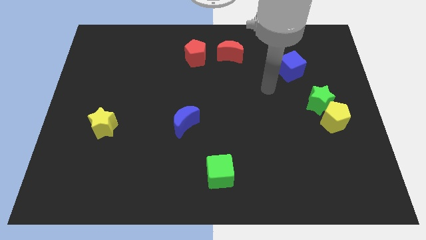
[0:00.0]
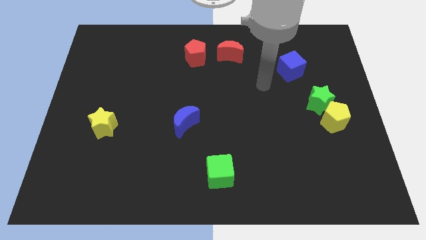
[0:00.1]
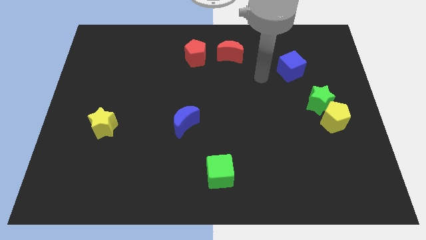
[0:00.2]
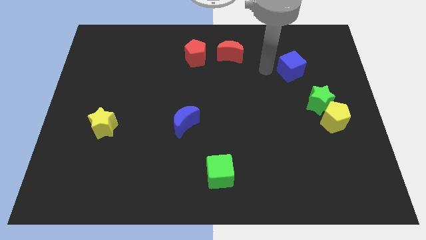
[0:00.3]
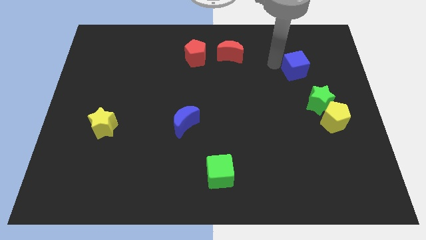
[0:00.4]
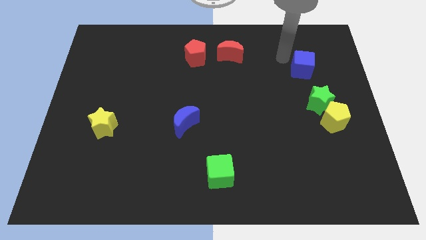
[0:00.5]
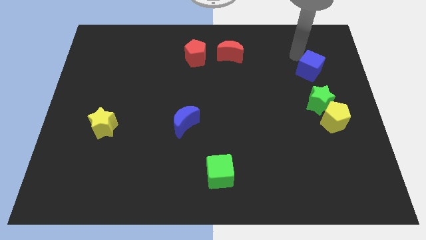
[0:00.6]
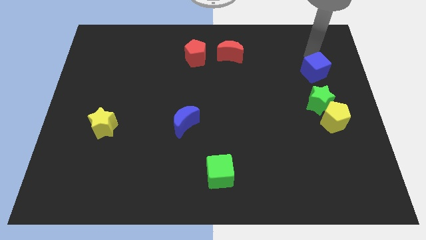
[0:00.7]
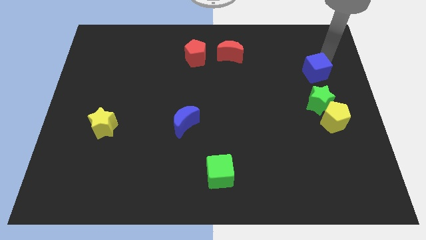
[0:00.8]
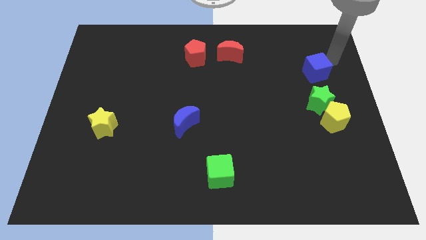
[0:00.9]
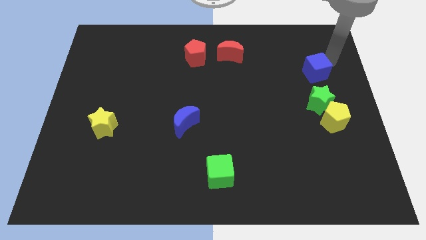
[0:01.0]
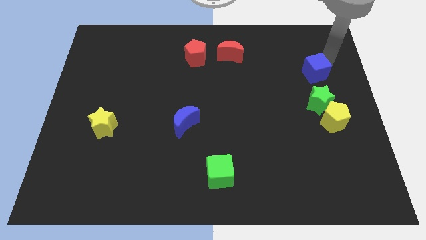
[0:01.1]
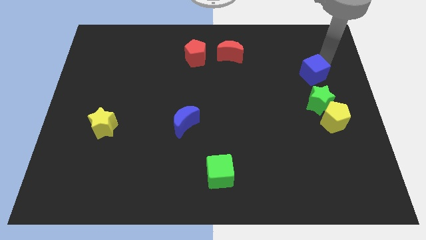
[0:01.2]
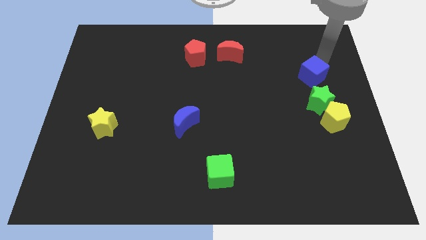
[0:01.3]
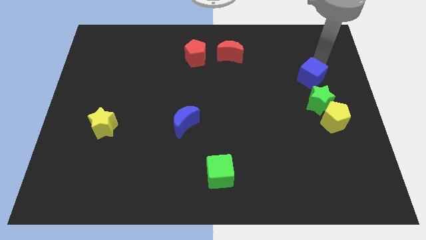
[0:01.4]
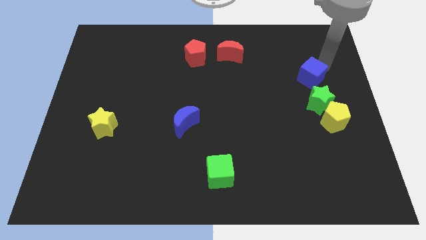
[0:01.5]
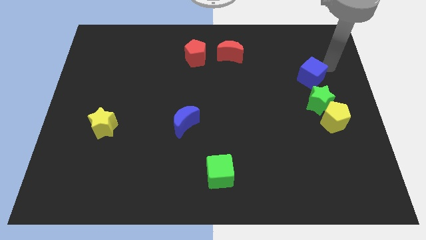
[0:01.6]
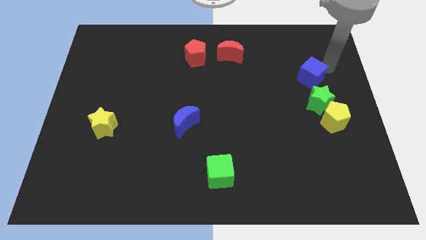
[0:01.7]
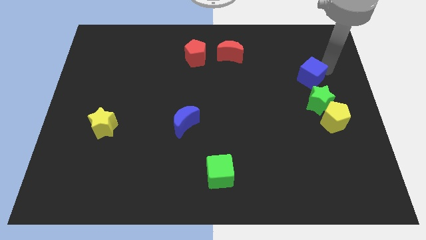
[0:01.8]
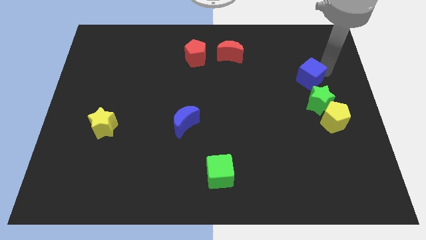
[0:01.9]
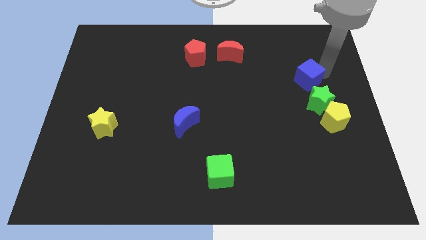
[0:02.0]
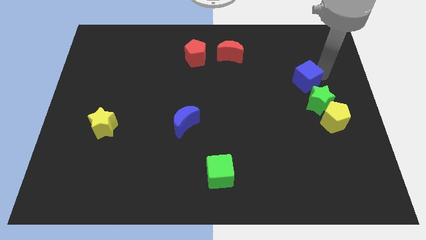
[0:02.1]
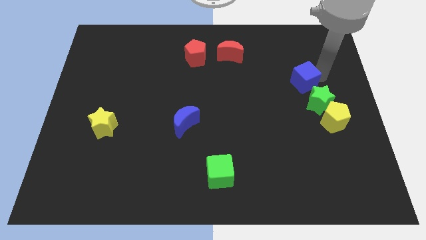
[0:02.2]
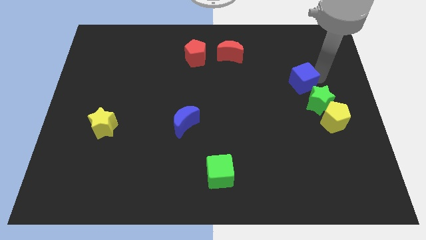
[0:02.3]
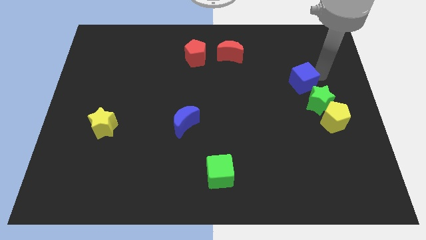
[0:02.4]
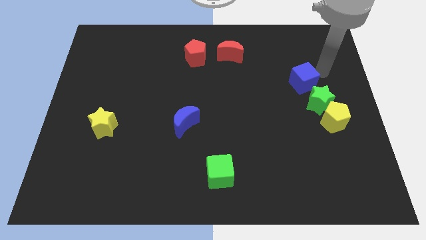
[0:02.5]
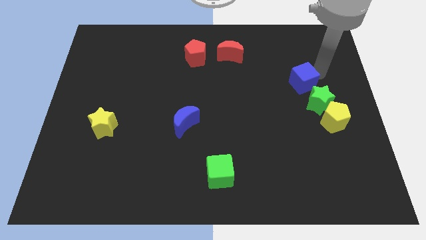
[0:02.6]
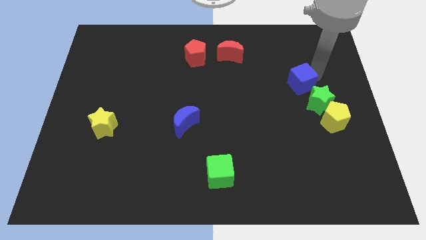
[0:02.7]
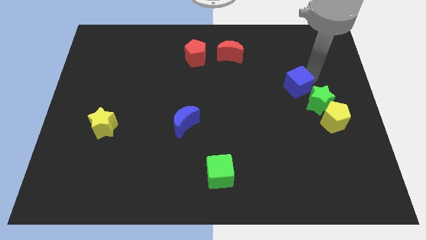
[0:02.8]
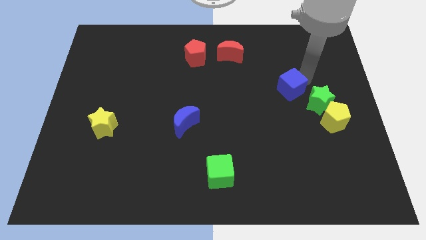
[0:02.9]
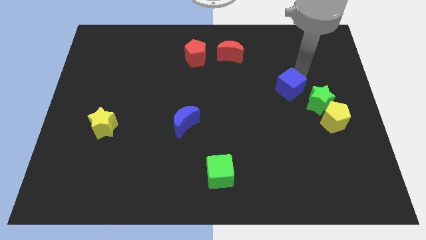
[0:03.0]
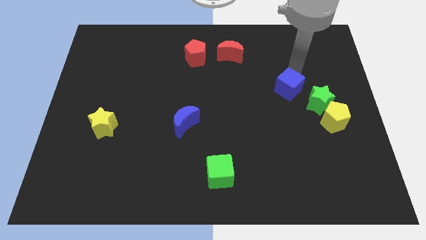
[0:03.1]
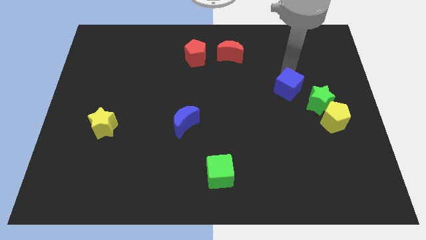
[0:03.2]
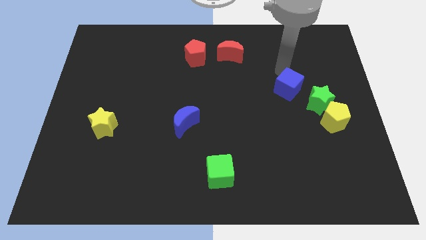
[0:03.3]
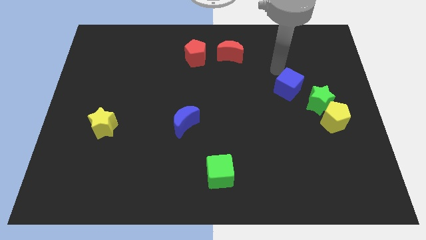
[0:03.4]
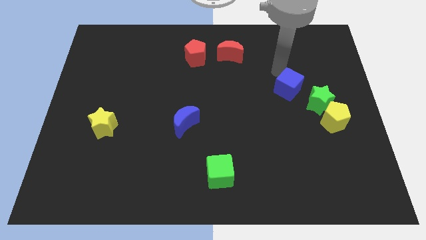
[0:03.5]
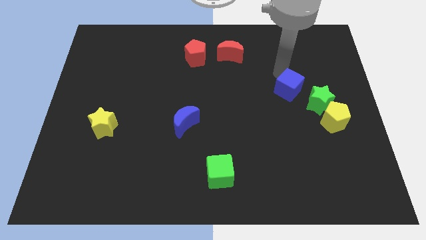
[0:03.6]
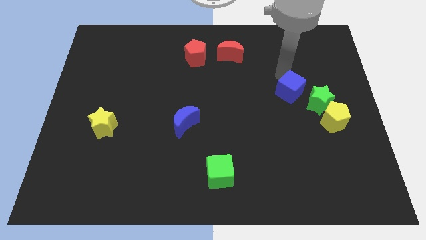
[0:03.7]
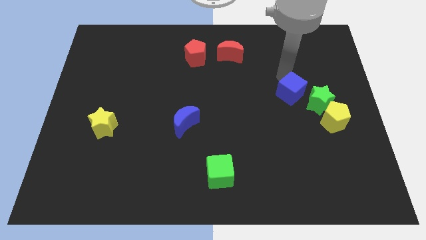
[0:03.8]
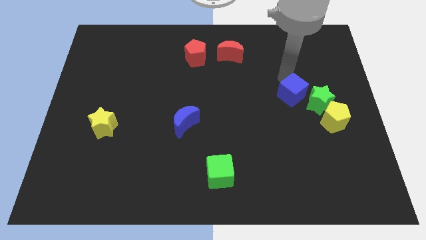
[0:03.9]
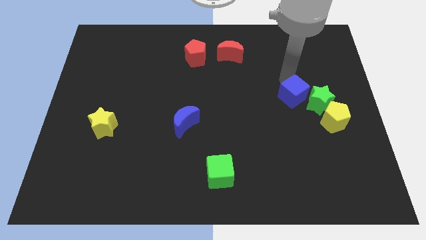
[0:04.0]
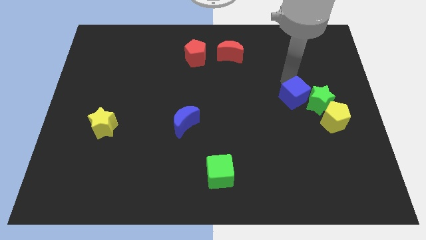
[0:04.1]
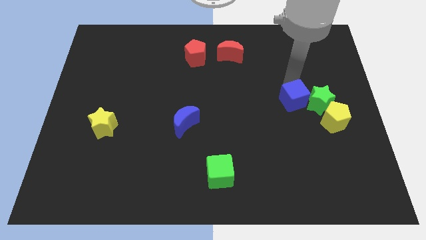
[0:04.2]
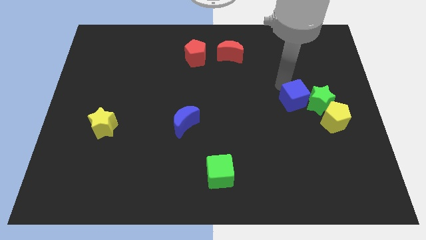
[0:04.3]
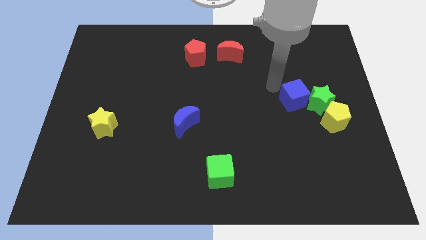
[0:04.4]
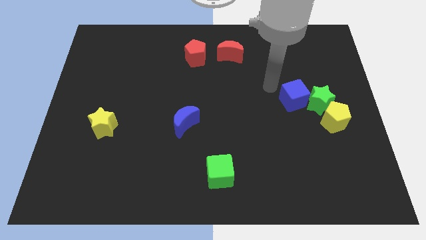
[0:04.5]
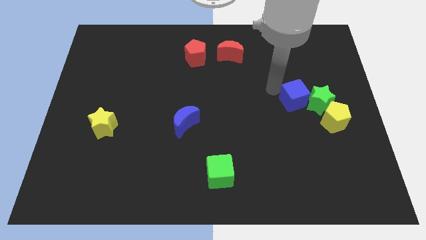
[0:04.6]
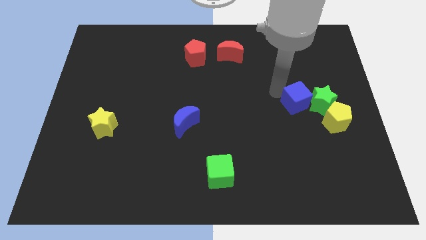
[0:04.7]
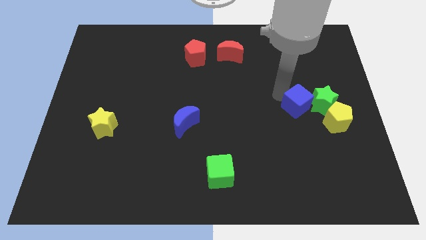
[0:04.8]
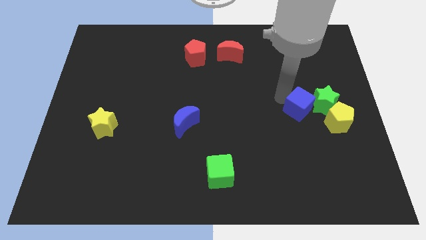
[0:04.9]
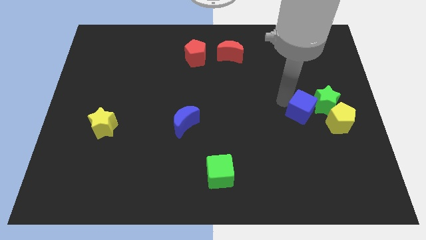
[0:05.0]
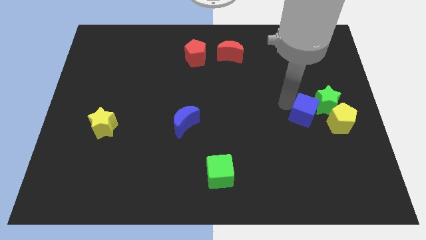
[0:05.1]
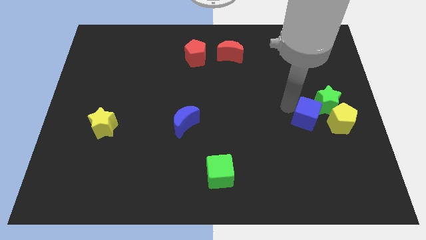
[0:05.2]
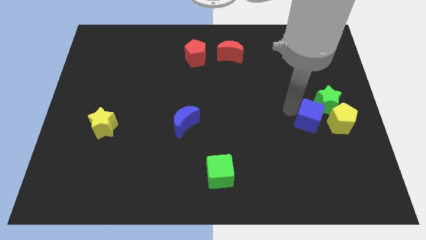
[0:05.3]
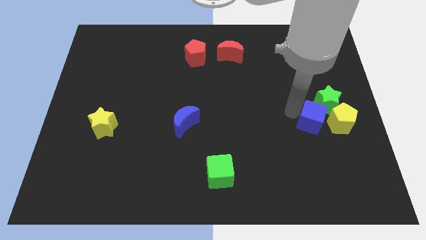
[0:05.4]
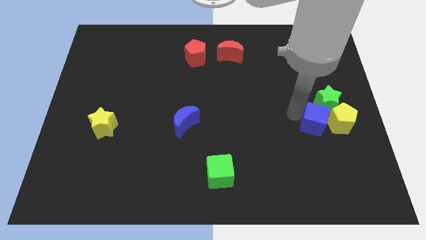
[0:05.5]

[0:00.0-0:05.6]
slide the blue cube towards the yellow pentagon

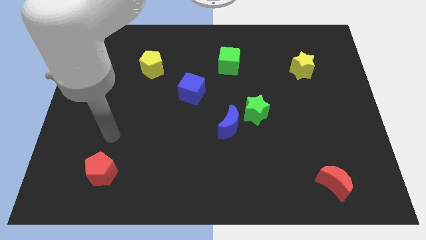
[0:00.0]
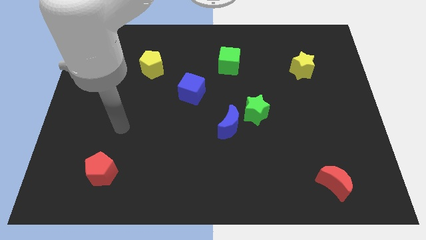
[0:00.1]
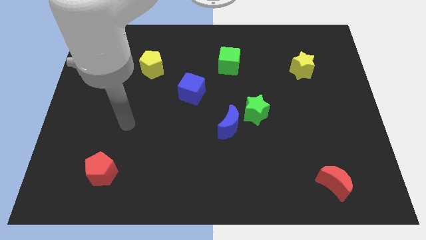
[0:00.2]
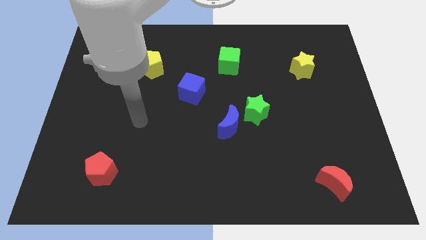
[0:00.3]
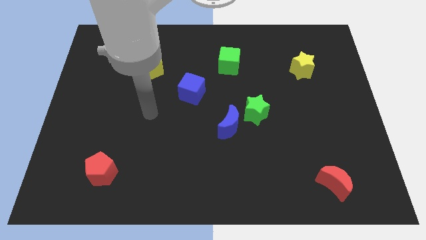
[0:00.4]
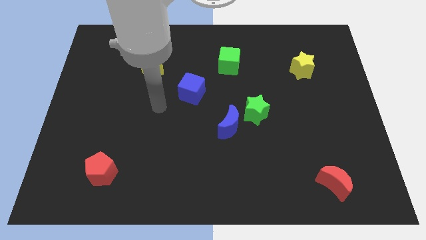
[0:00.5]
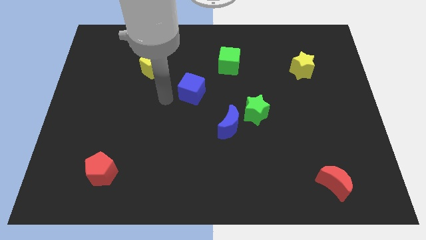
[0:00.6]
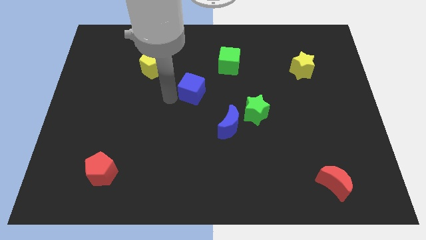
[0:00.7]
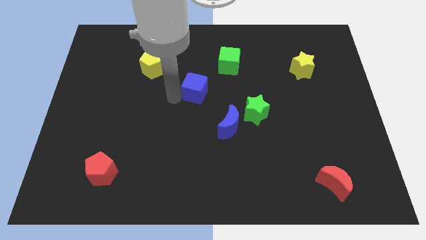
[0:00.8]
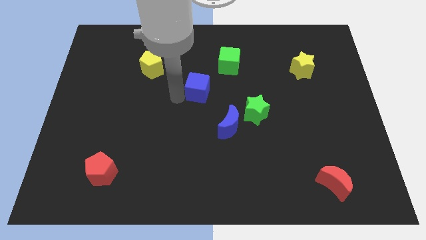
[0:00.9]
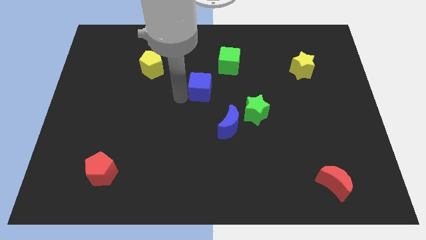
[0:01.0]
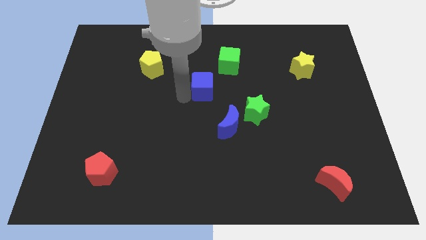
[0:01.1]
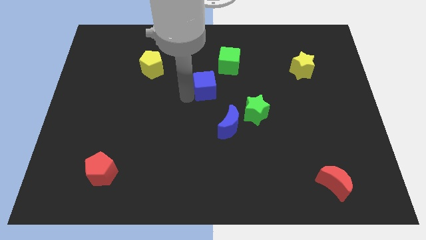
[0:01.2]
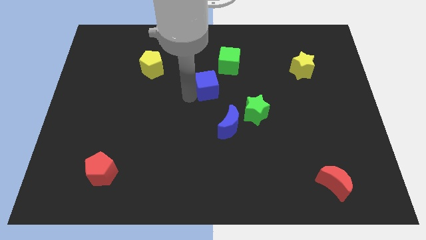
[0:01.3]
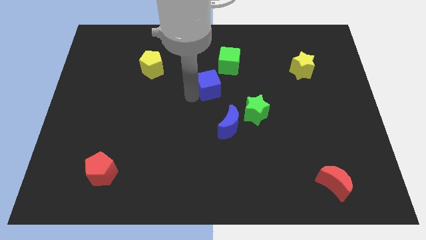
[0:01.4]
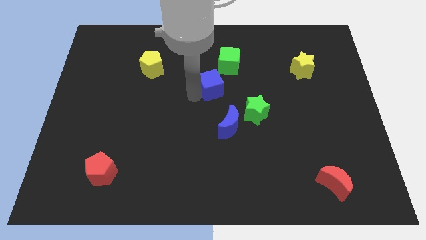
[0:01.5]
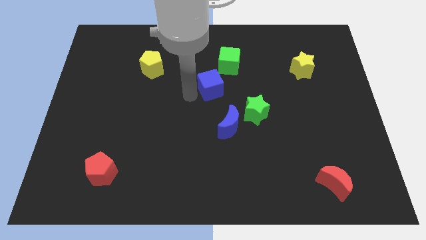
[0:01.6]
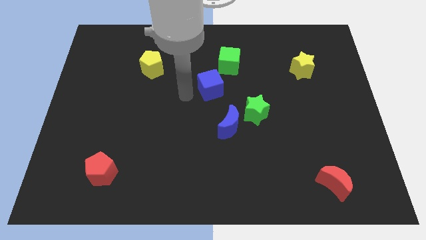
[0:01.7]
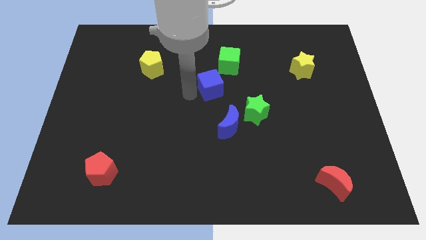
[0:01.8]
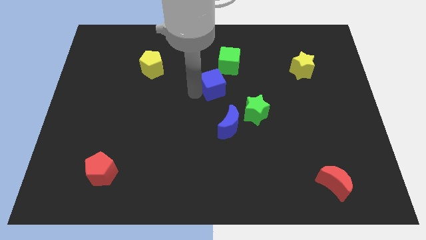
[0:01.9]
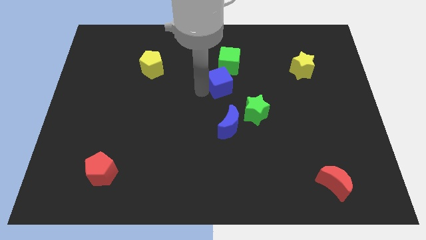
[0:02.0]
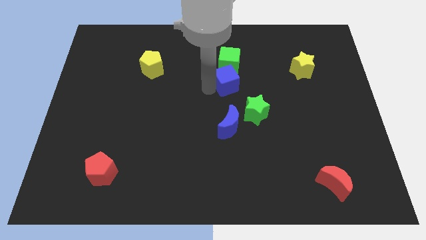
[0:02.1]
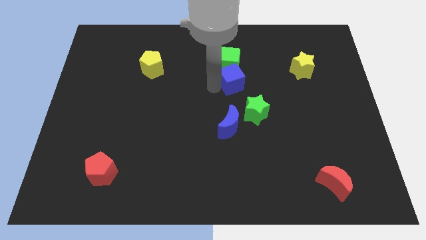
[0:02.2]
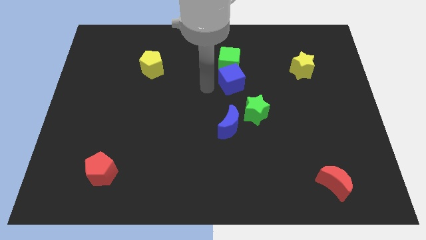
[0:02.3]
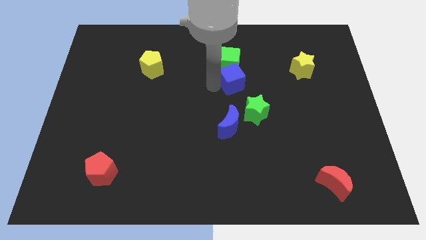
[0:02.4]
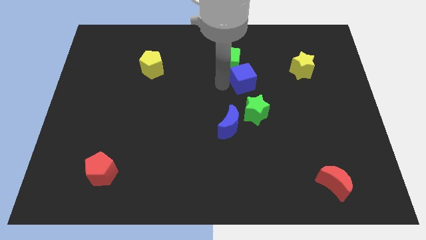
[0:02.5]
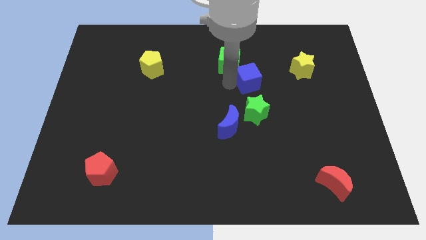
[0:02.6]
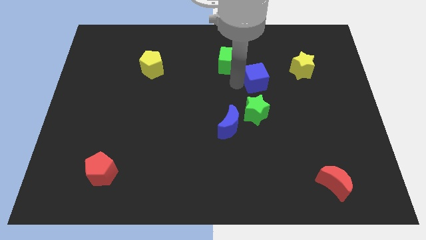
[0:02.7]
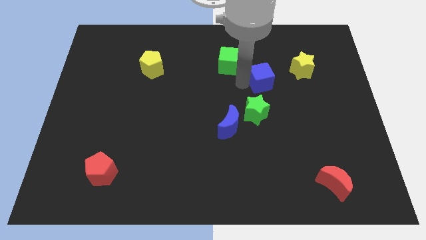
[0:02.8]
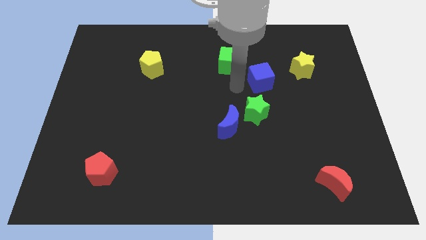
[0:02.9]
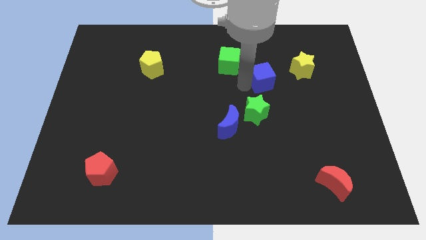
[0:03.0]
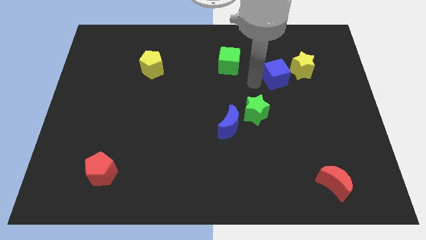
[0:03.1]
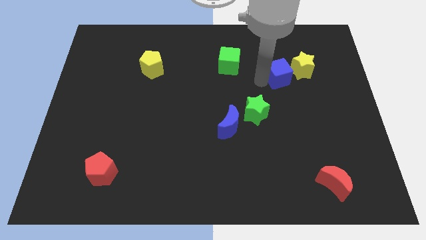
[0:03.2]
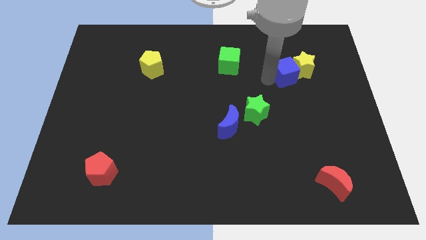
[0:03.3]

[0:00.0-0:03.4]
move the blue cube to the yellow star
